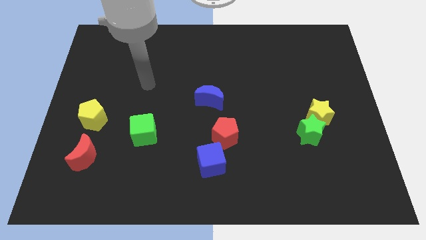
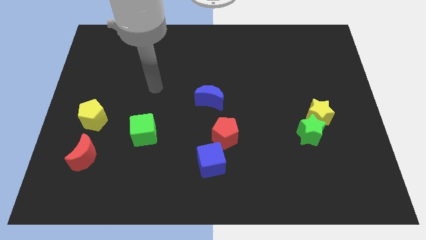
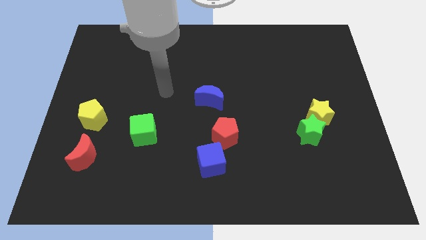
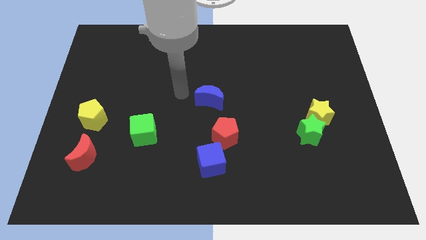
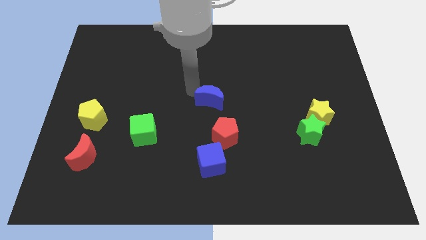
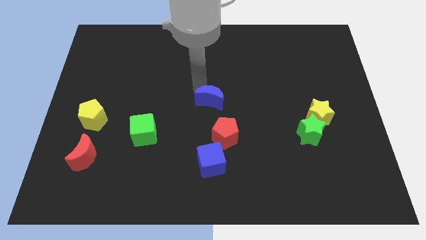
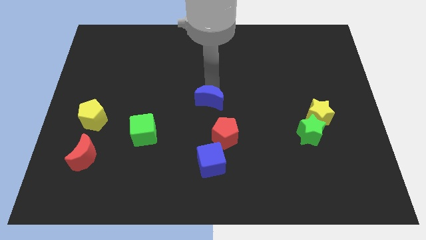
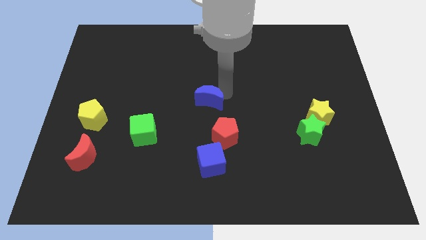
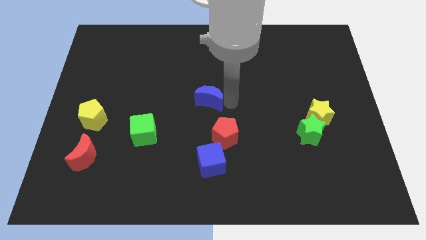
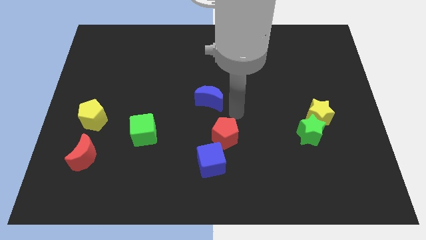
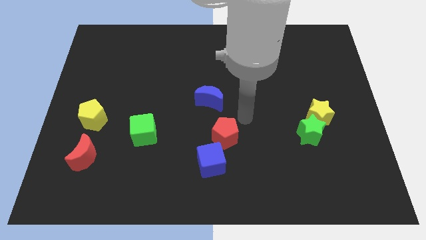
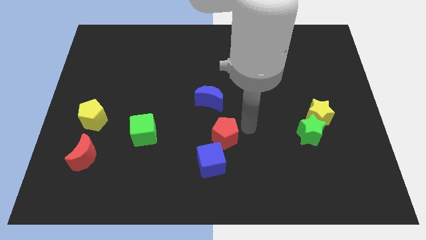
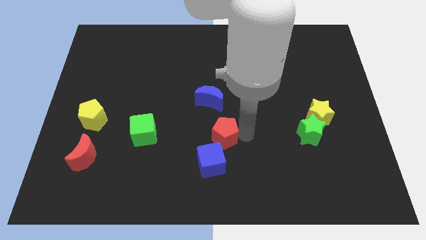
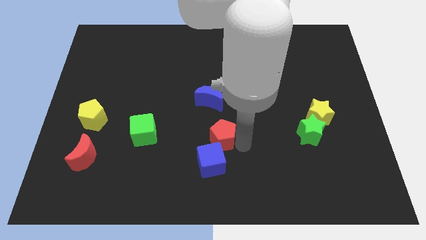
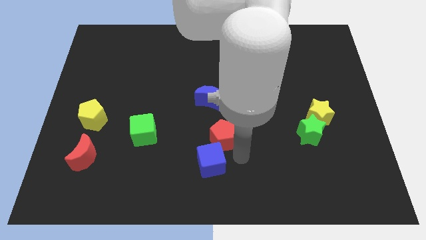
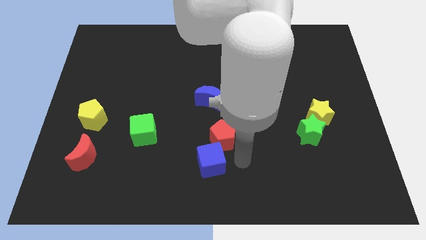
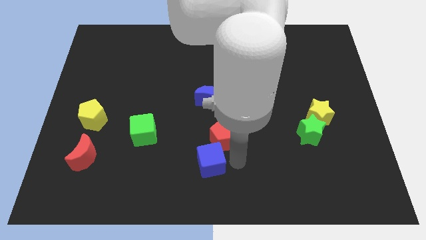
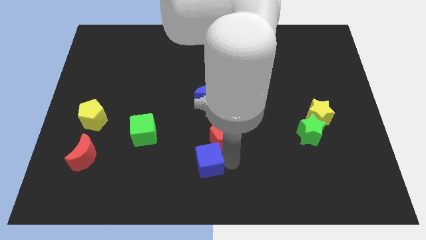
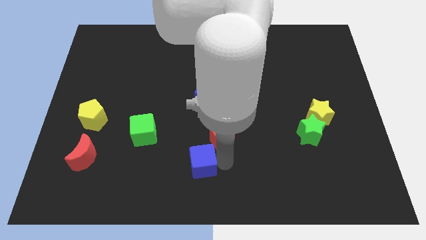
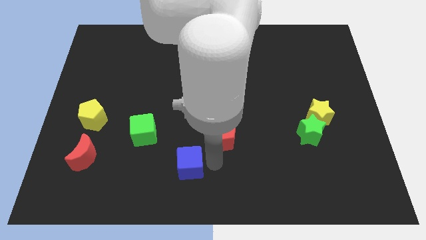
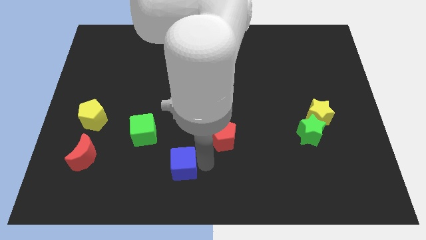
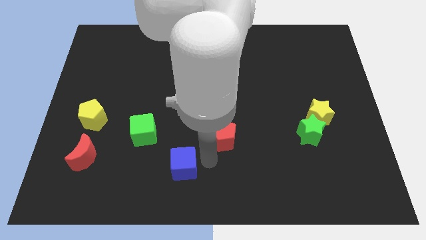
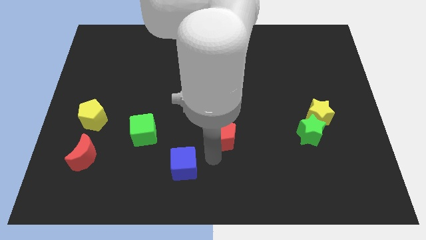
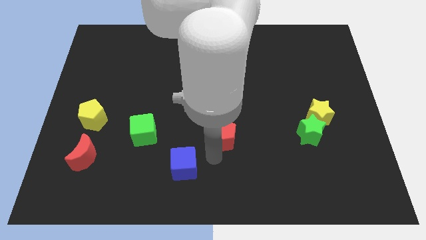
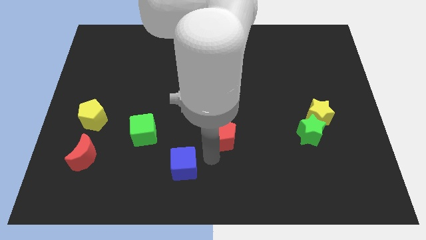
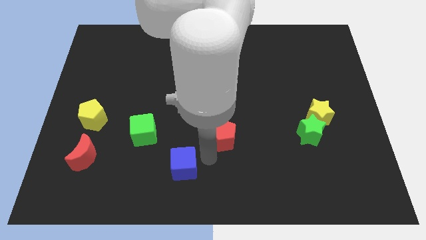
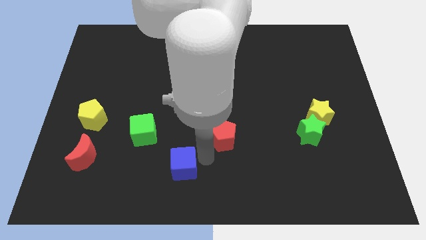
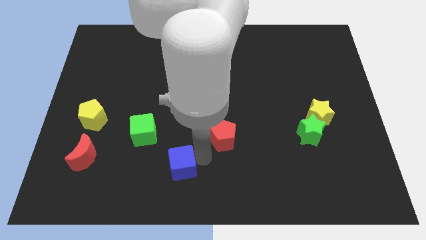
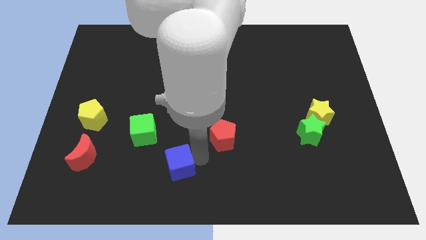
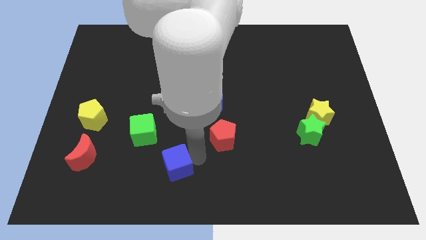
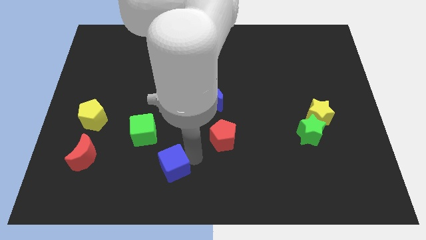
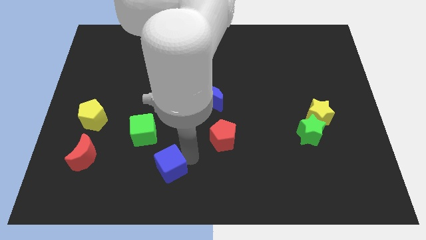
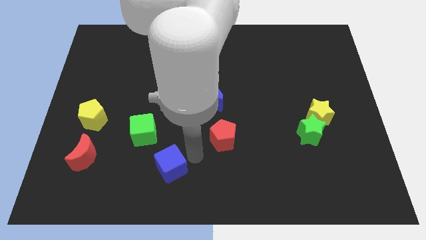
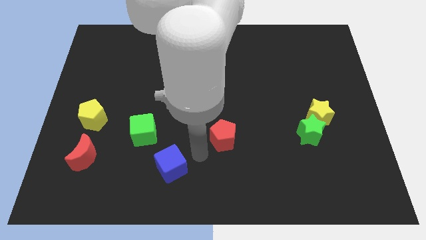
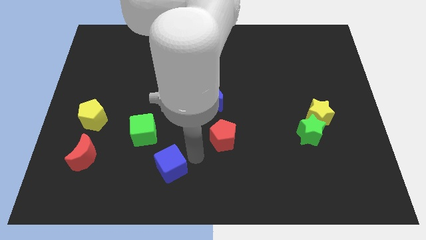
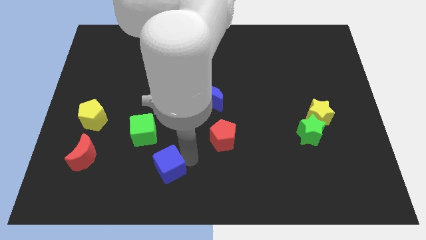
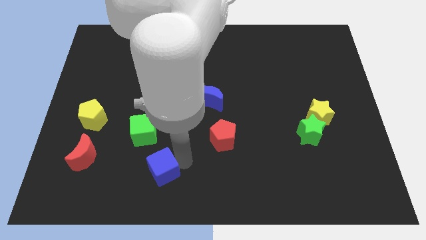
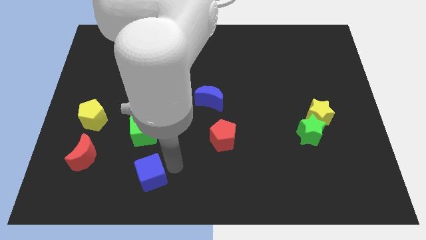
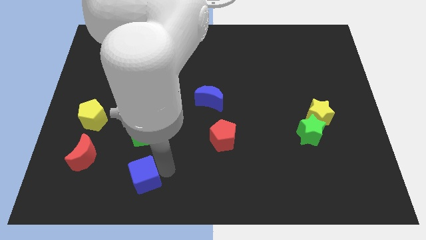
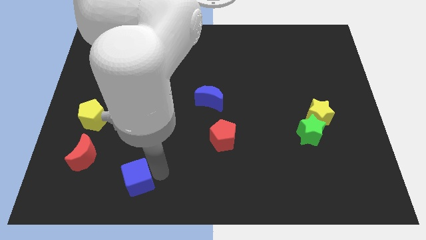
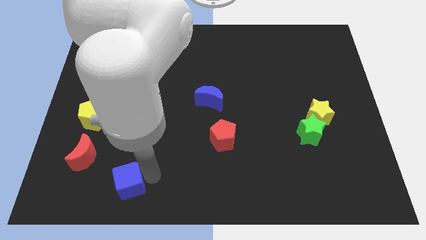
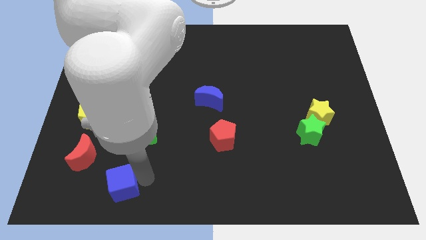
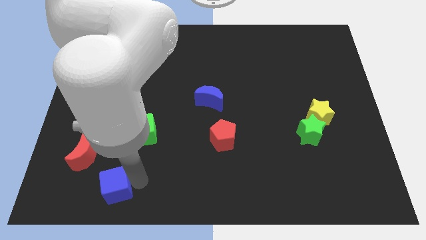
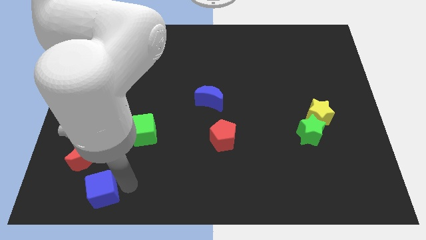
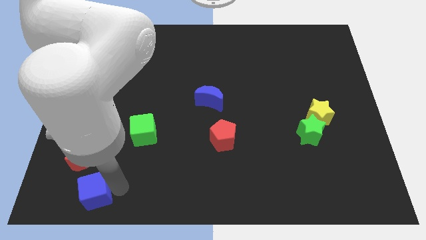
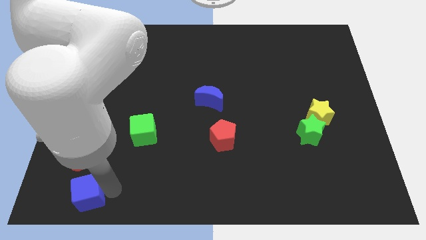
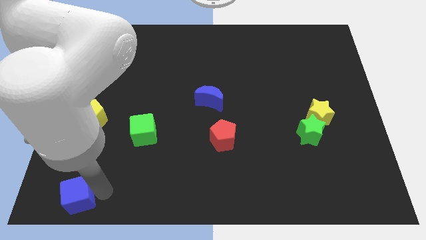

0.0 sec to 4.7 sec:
move the blue cube to the bottom left

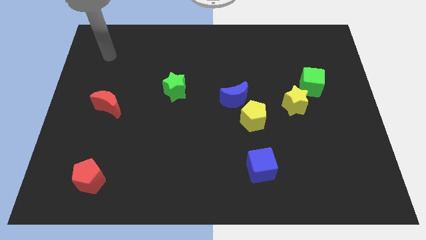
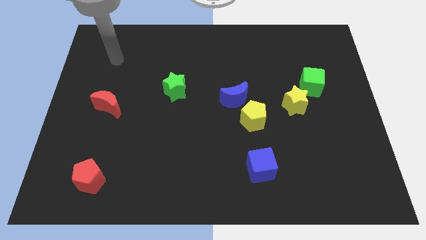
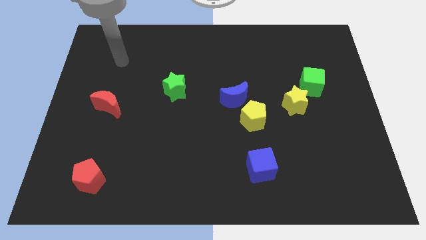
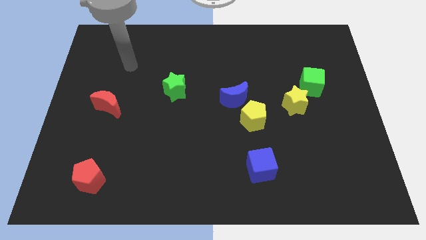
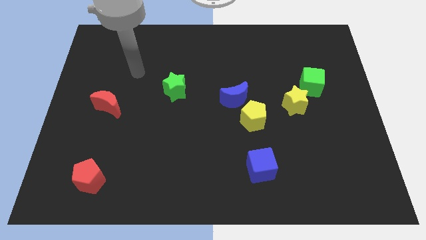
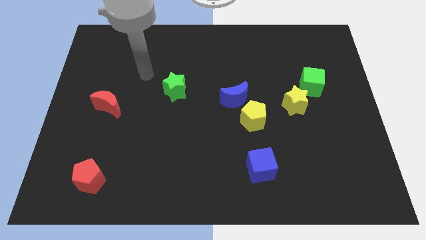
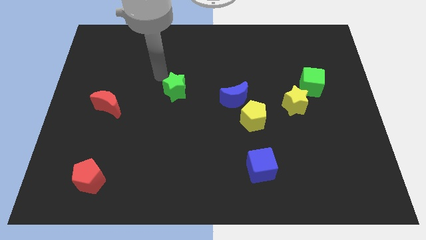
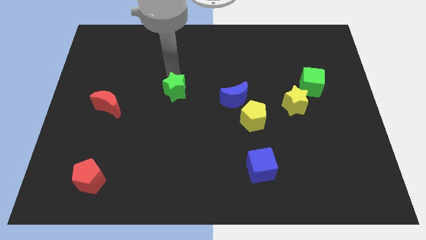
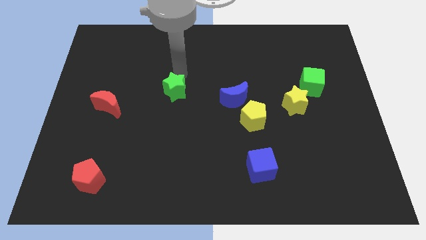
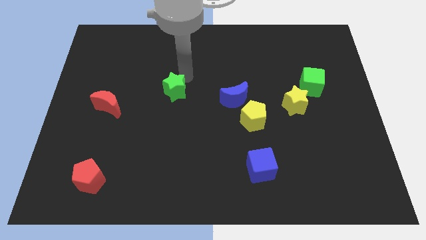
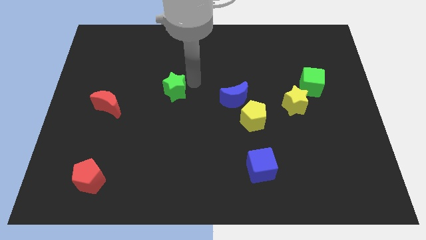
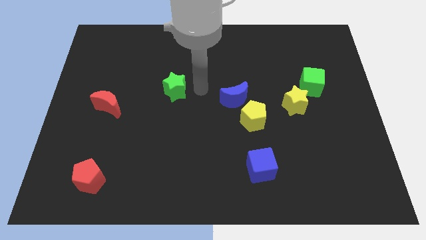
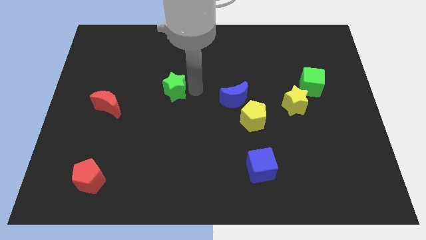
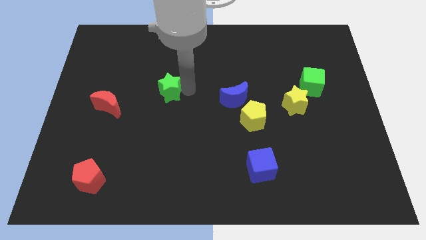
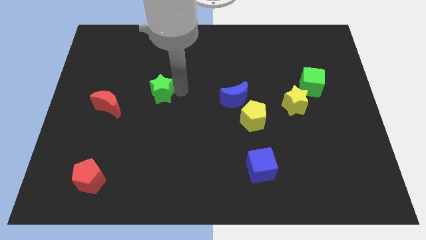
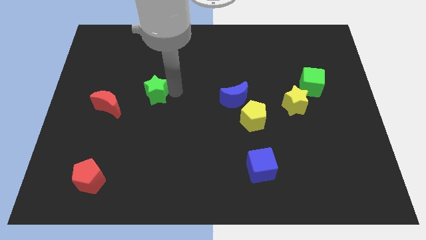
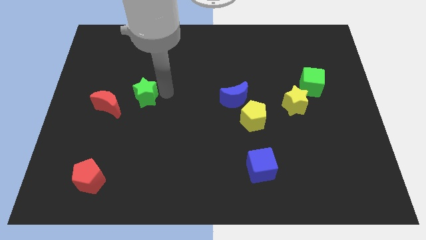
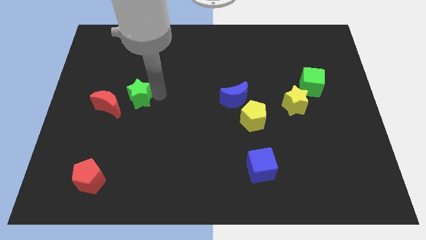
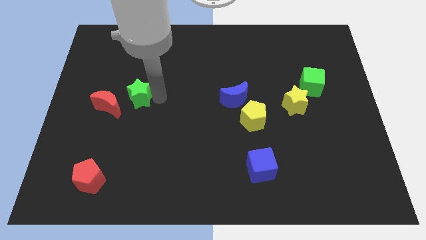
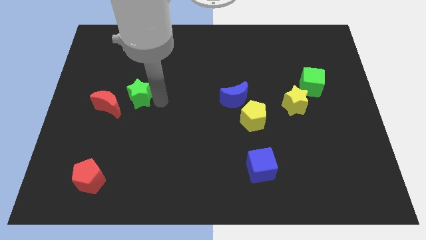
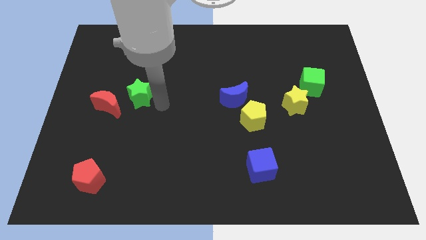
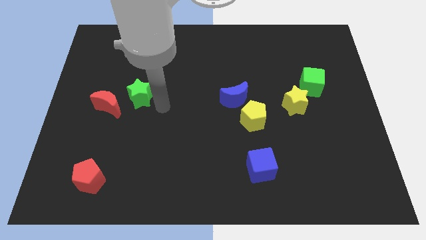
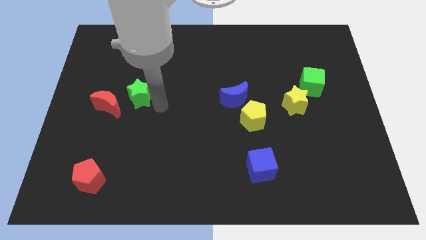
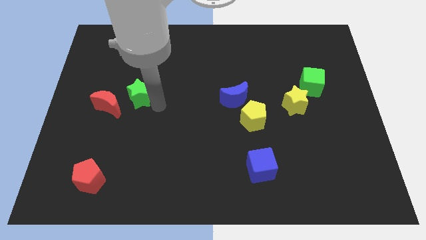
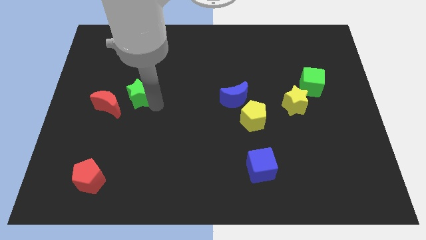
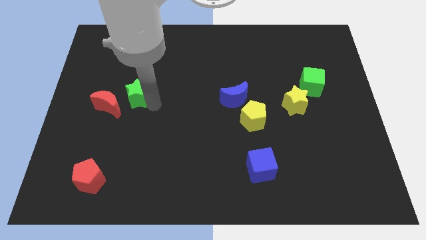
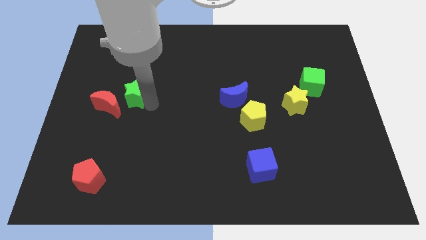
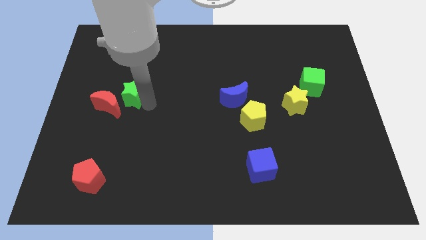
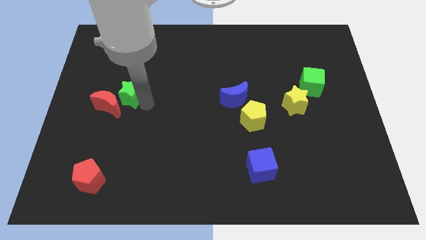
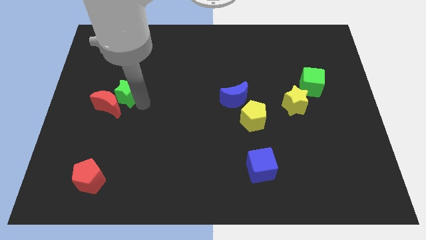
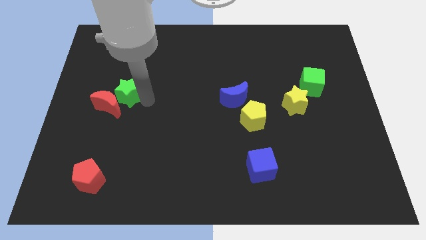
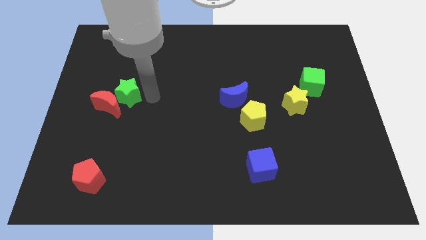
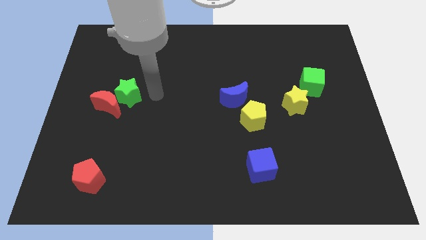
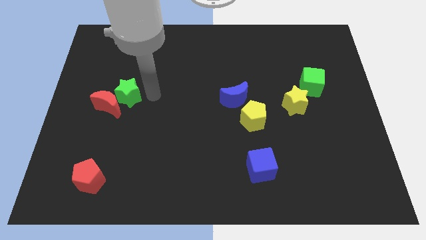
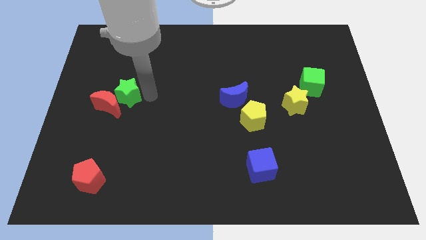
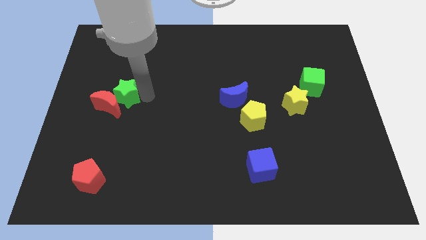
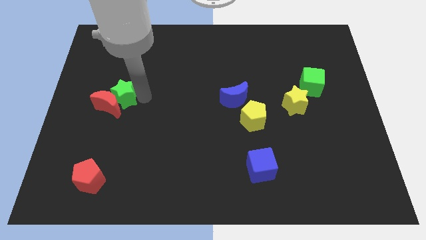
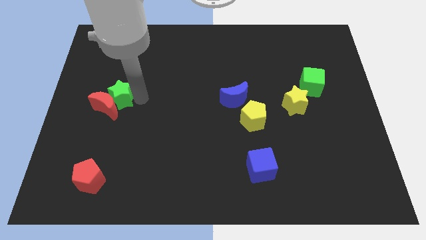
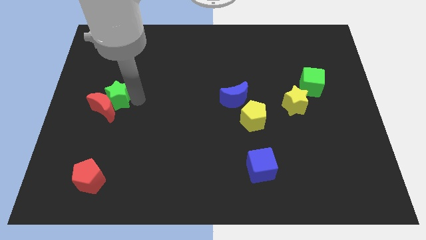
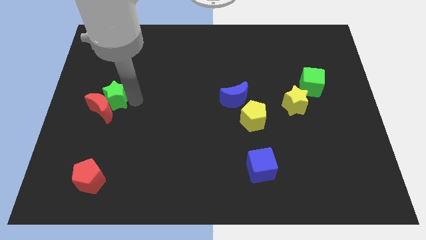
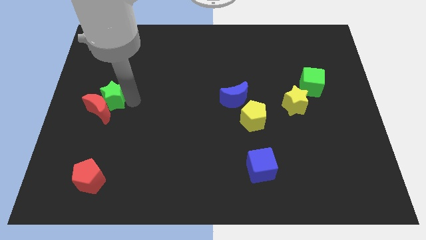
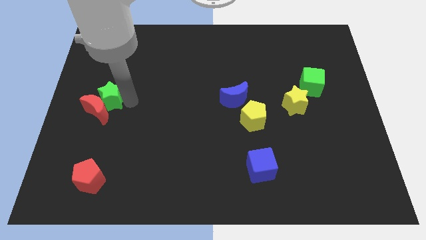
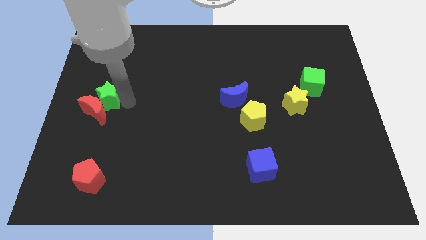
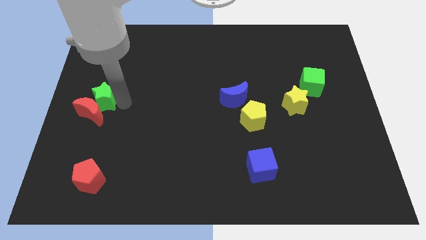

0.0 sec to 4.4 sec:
move the green star to the left side of the board
